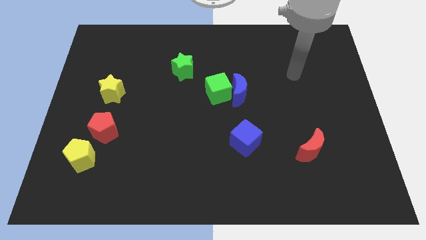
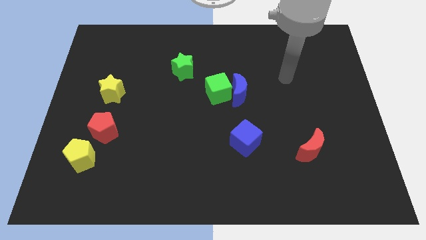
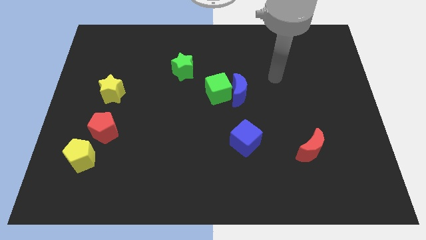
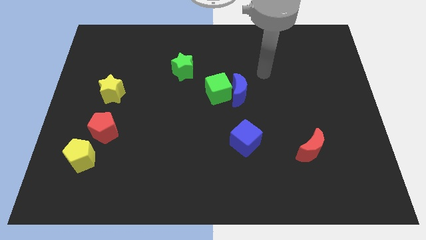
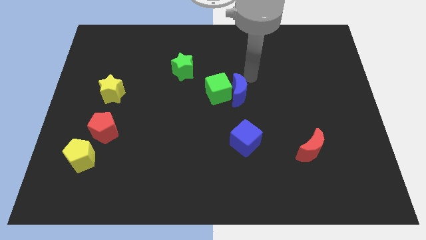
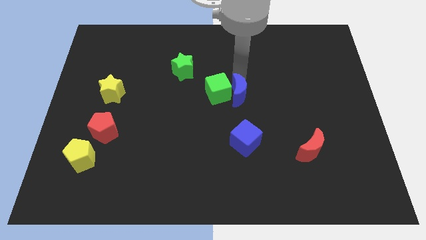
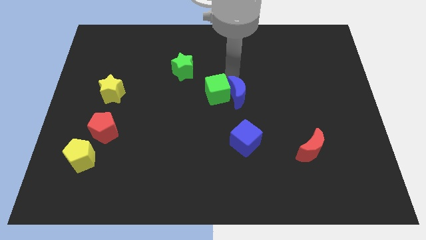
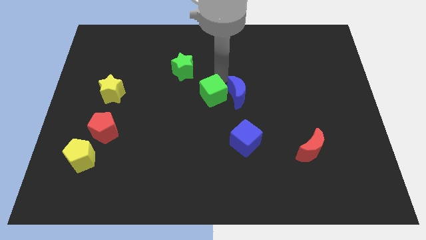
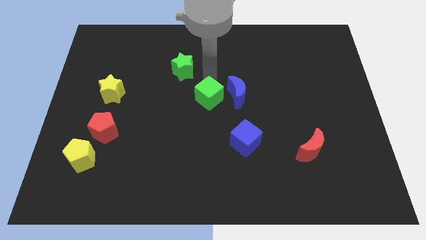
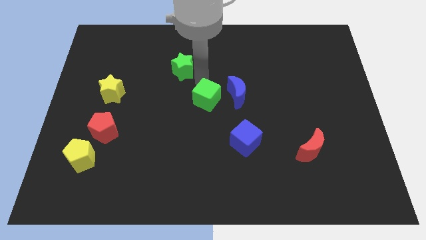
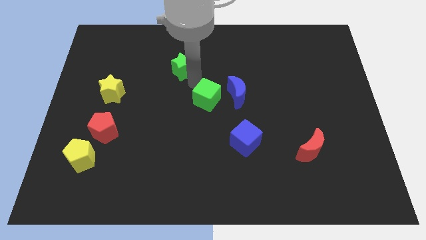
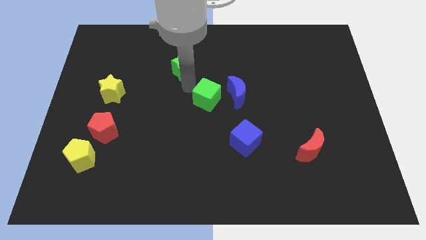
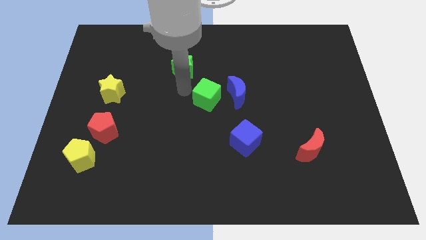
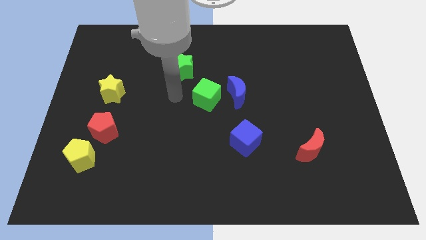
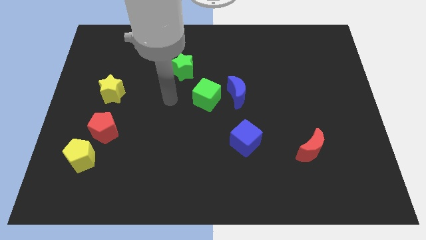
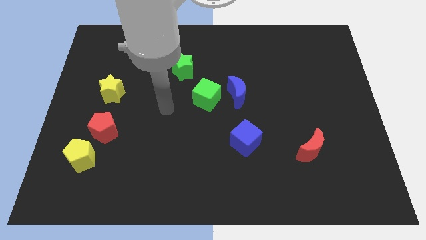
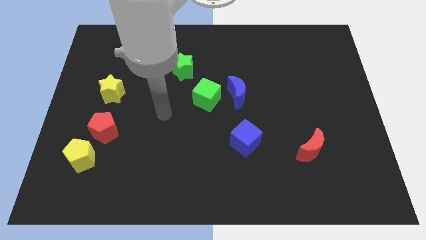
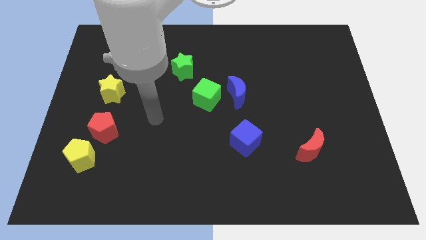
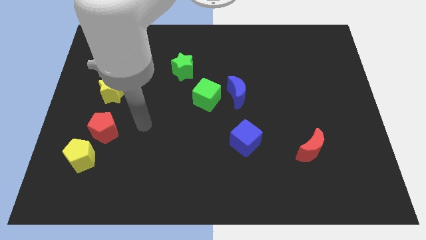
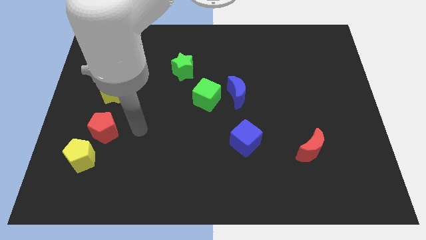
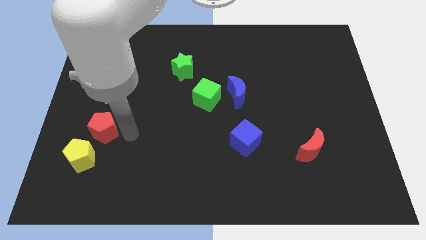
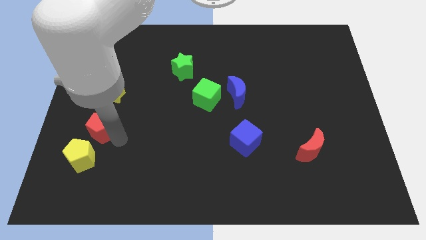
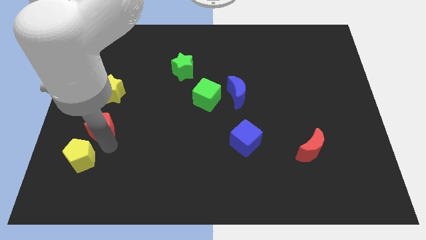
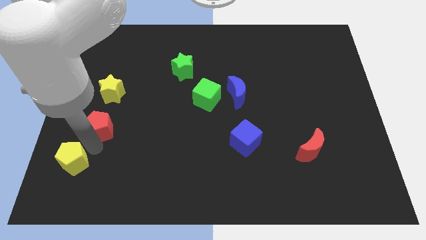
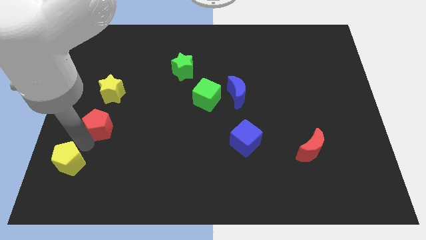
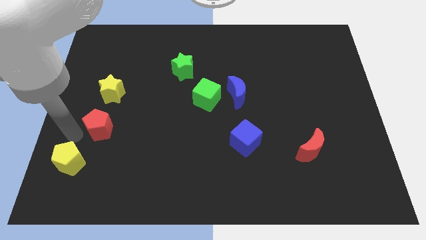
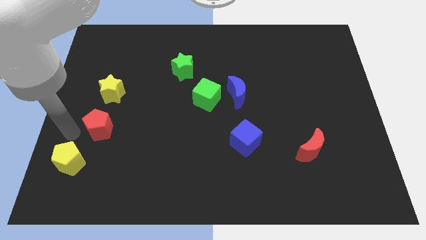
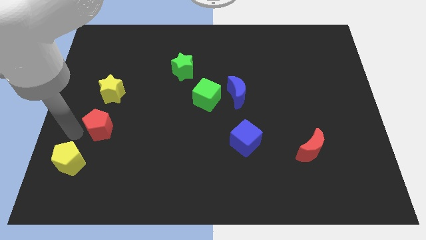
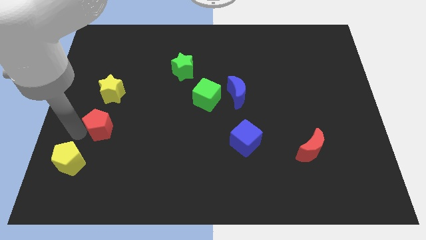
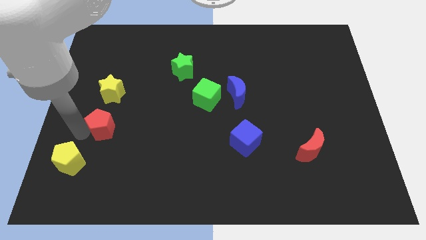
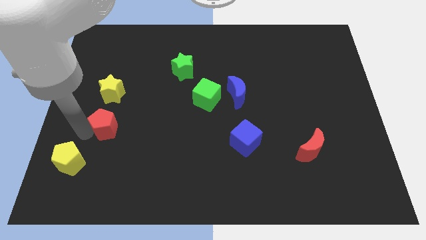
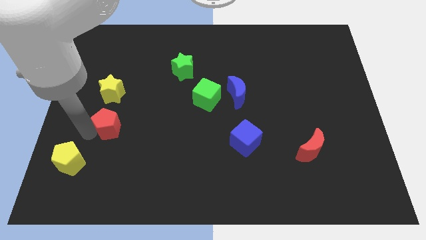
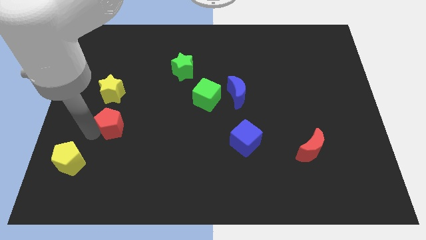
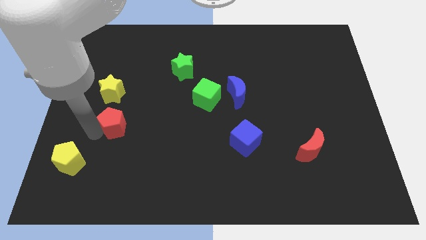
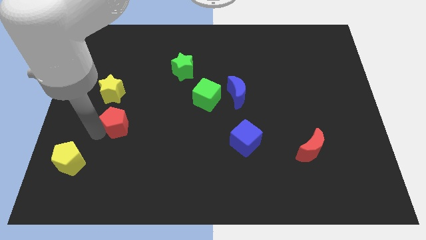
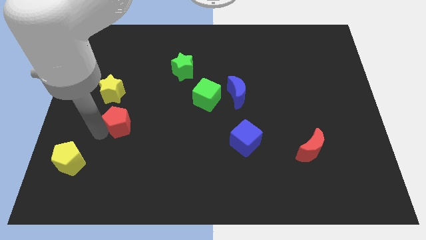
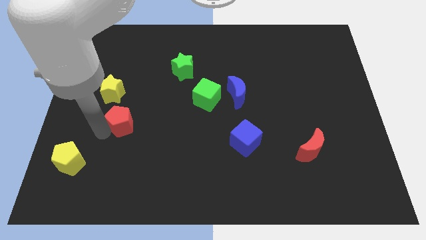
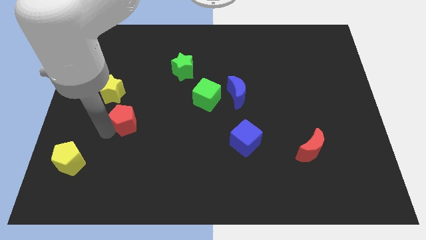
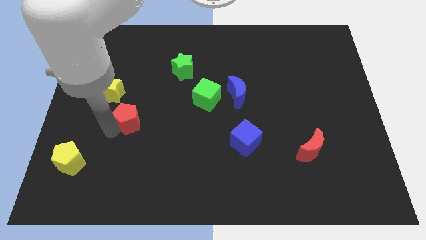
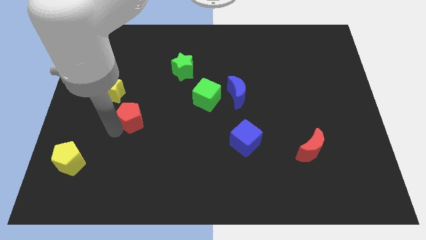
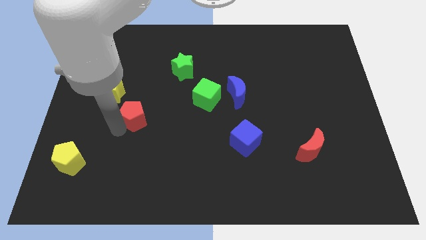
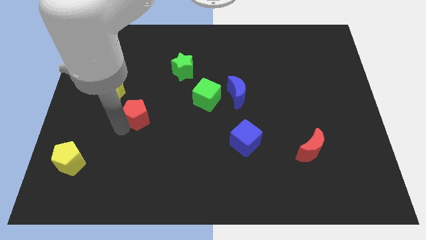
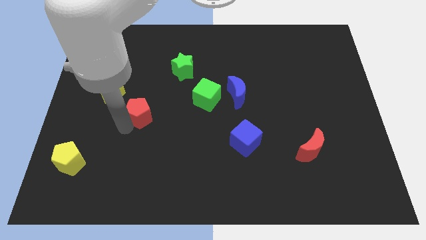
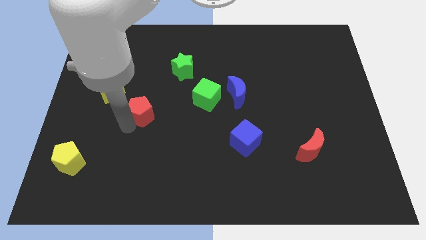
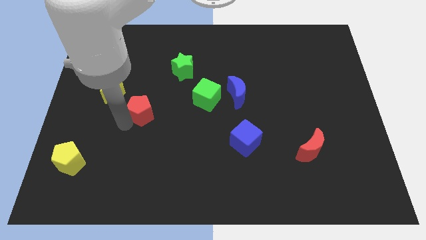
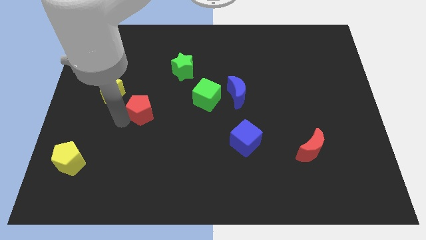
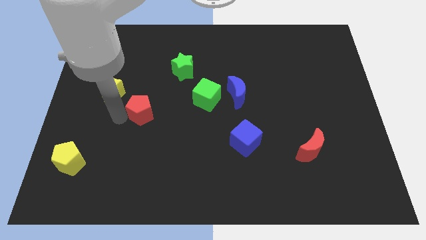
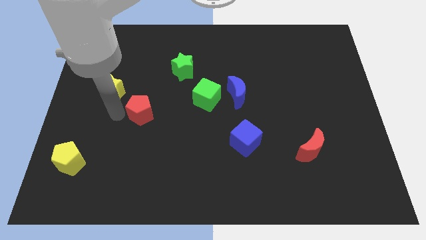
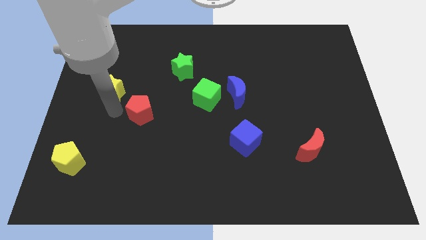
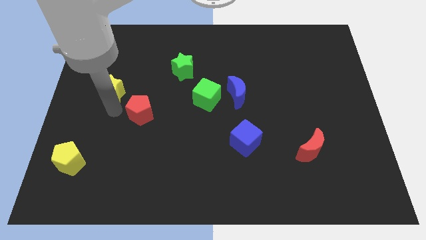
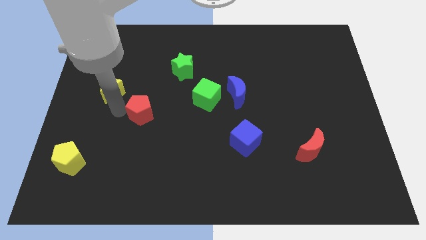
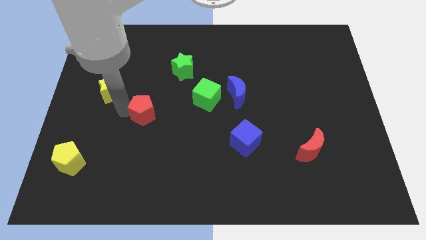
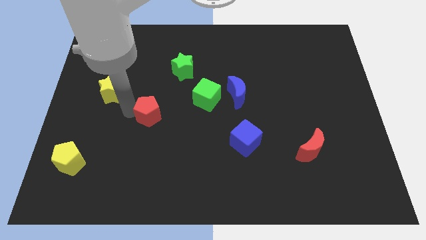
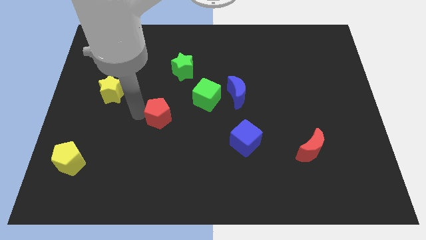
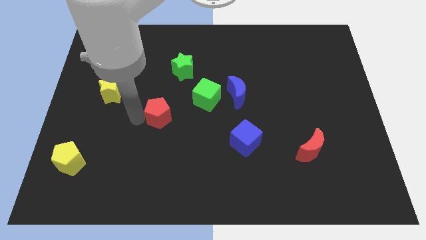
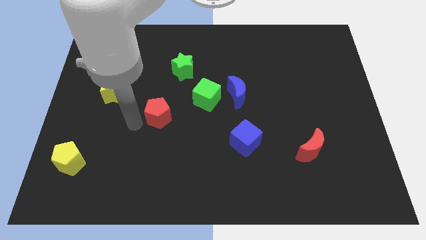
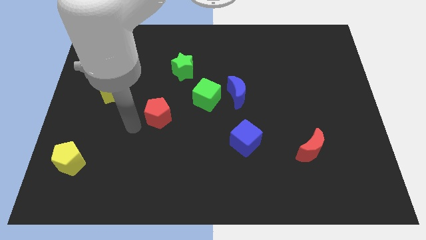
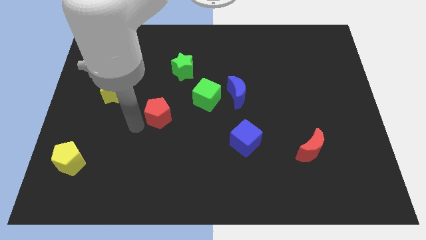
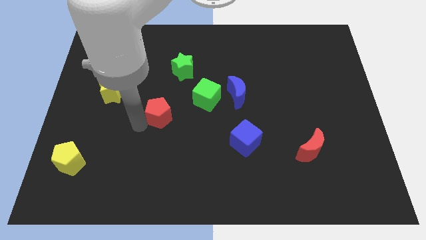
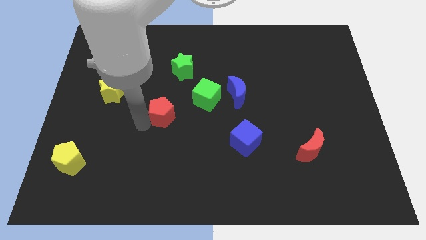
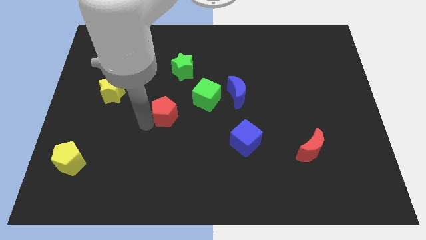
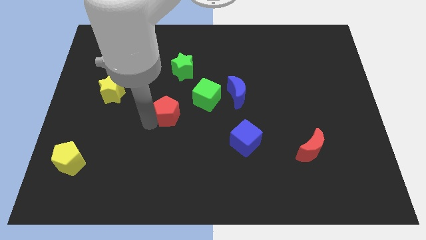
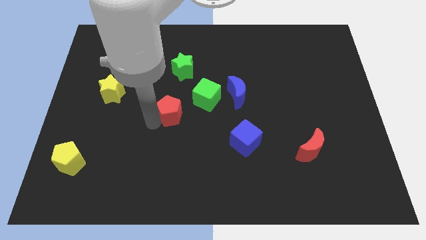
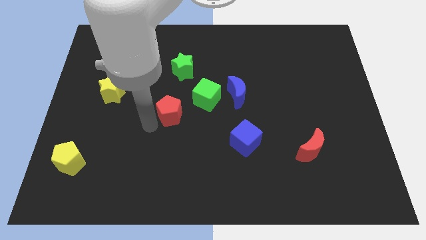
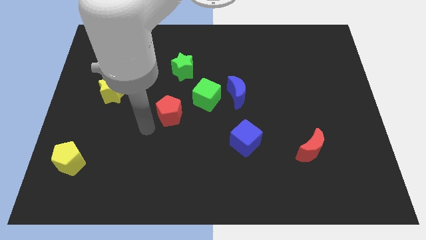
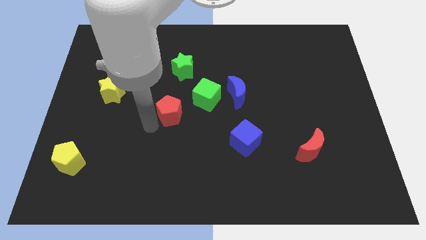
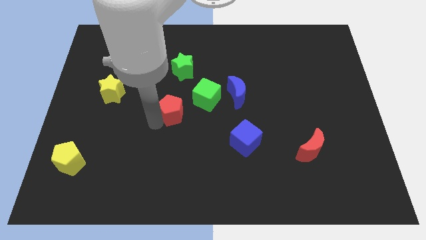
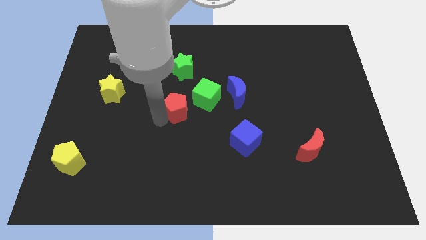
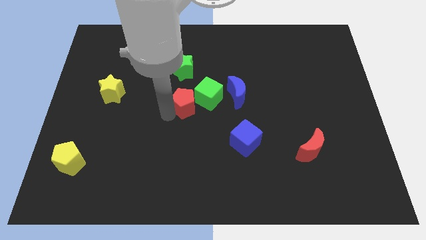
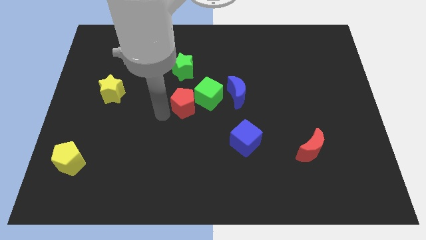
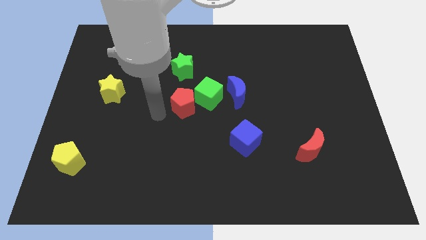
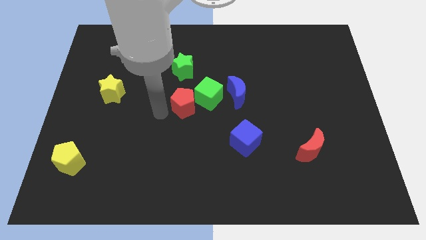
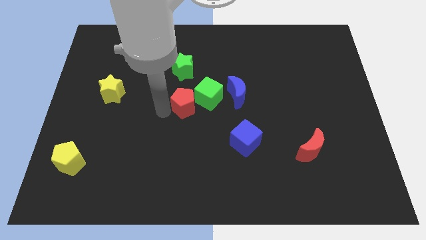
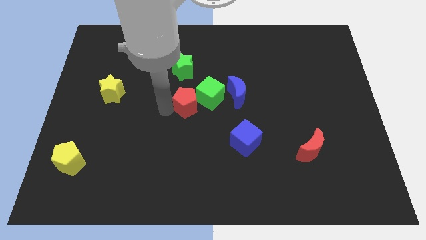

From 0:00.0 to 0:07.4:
slide the red pentagon close to the green cube
